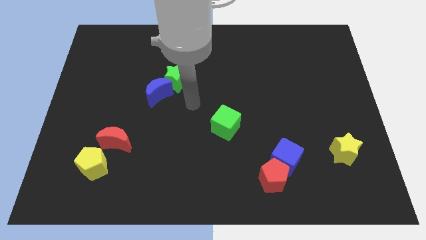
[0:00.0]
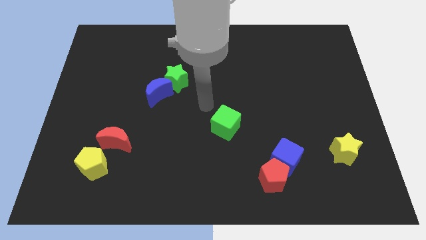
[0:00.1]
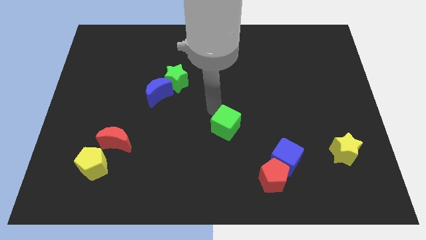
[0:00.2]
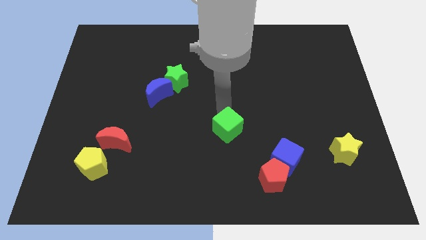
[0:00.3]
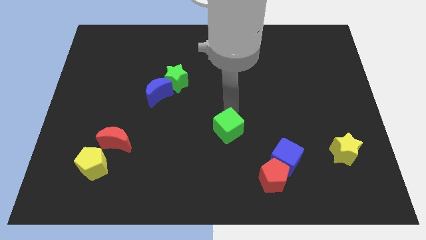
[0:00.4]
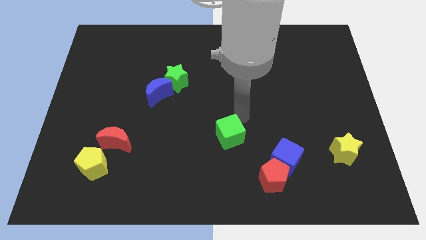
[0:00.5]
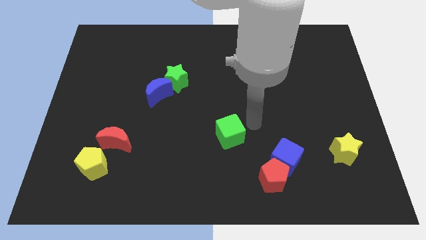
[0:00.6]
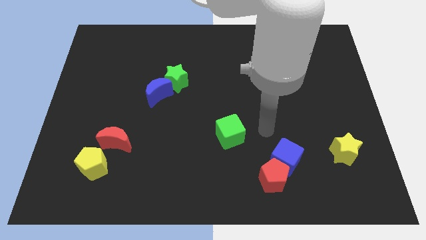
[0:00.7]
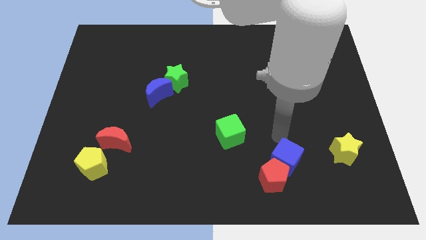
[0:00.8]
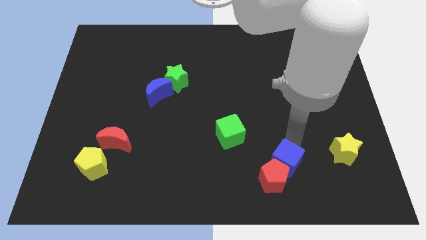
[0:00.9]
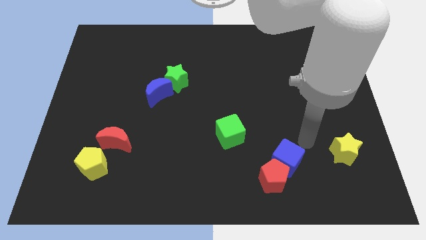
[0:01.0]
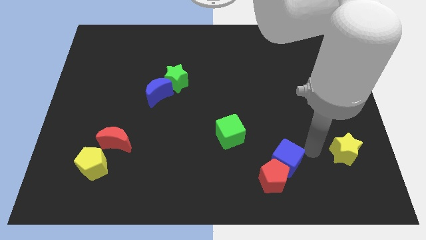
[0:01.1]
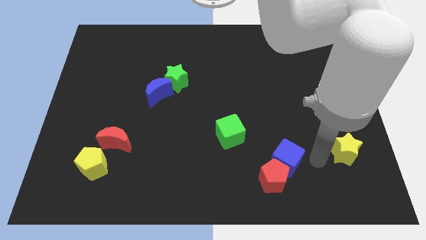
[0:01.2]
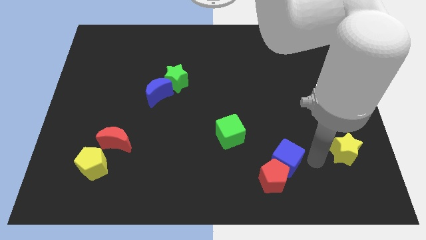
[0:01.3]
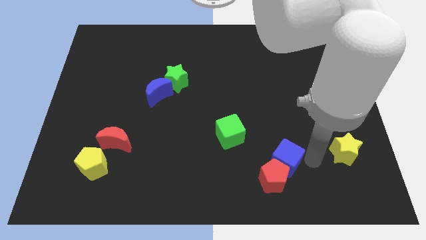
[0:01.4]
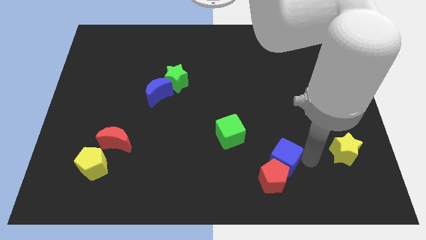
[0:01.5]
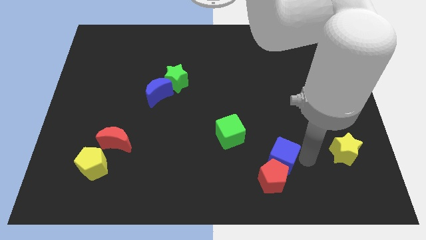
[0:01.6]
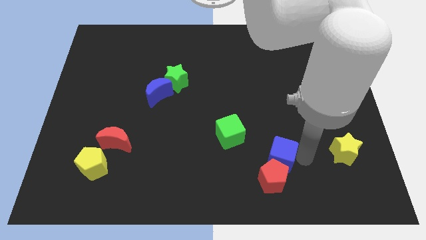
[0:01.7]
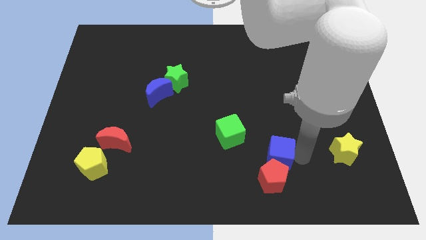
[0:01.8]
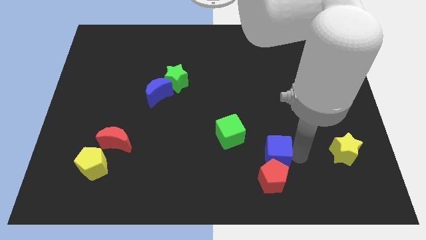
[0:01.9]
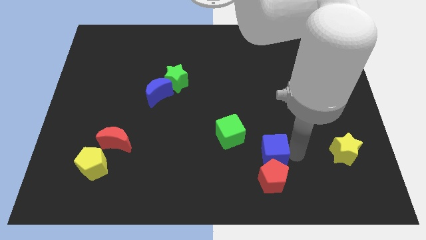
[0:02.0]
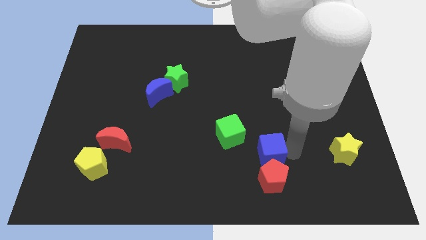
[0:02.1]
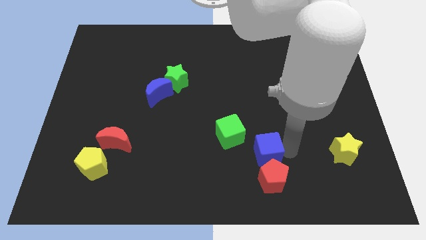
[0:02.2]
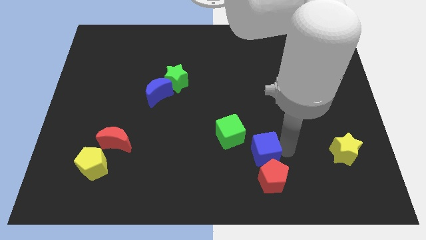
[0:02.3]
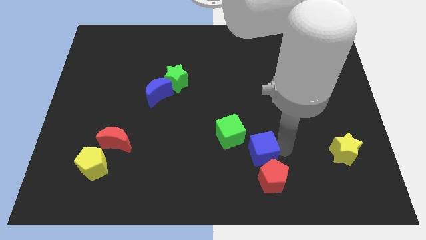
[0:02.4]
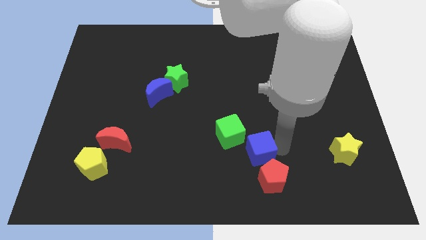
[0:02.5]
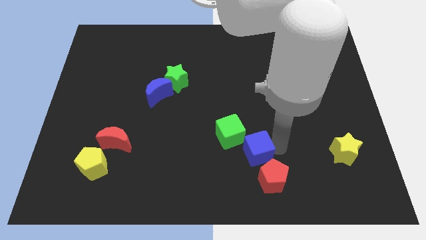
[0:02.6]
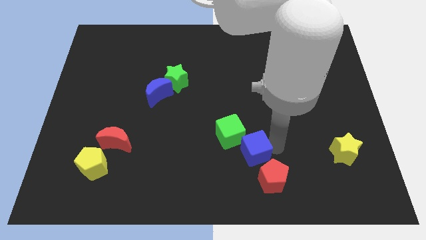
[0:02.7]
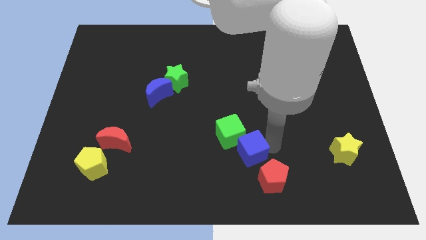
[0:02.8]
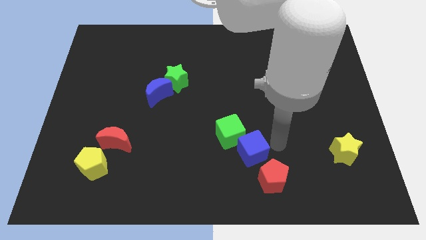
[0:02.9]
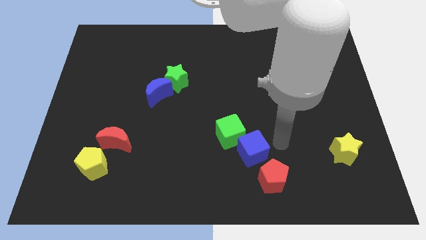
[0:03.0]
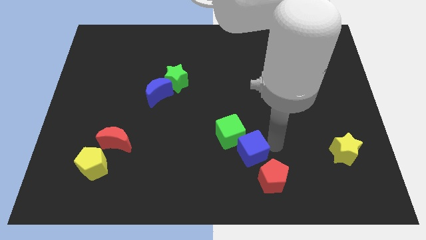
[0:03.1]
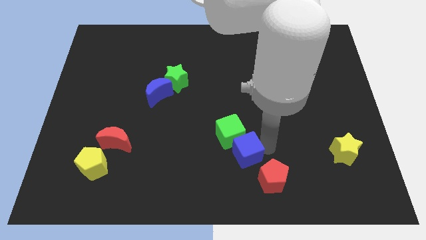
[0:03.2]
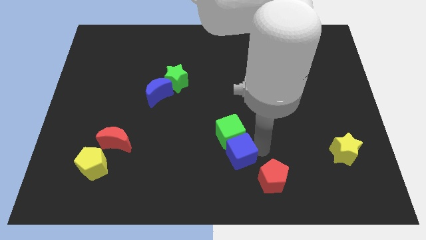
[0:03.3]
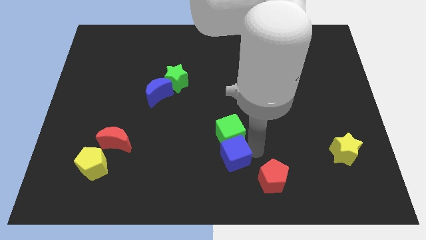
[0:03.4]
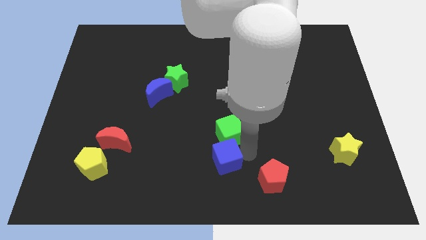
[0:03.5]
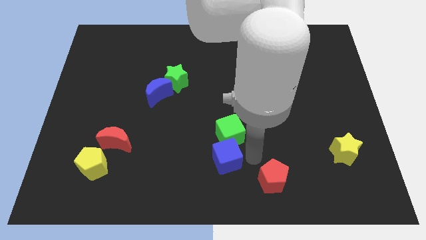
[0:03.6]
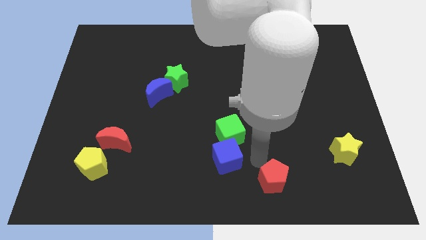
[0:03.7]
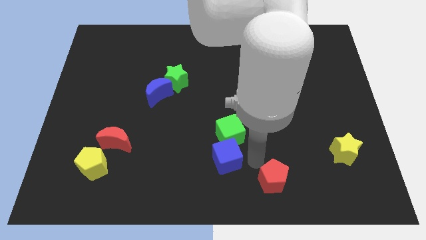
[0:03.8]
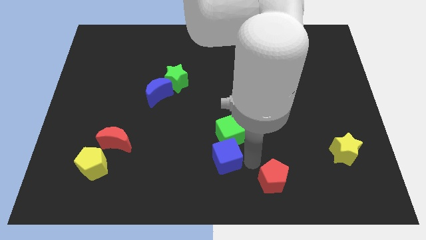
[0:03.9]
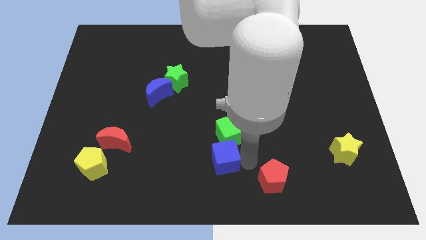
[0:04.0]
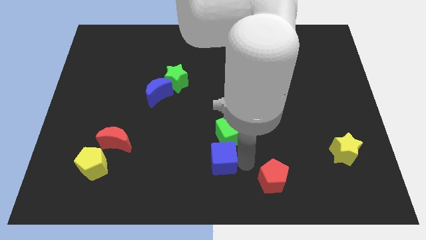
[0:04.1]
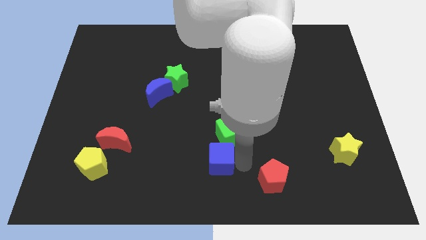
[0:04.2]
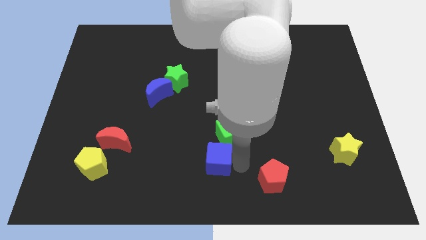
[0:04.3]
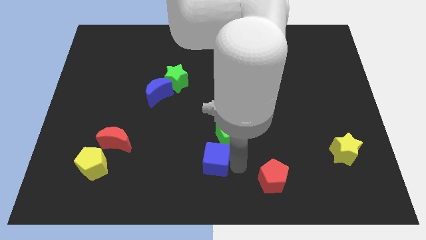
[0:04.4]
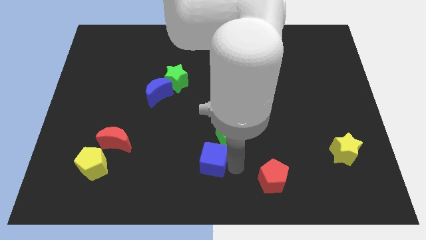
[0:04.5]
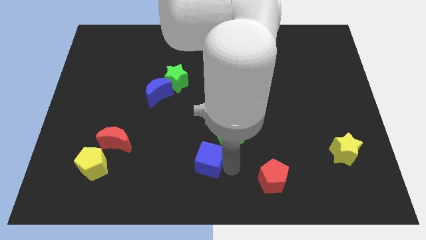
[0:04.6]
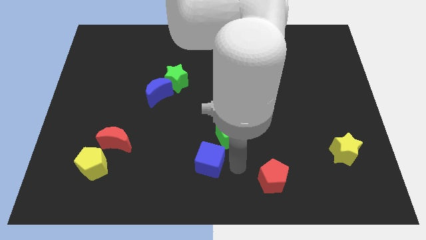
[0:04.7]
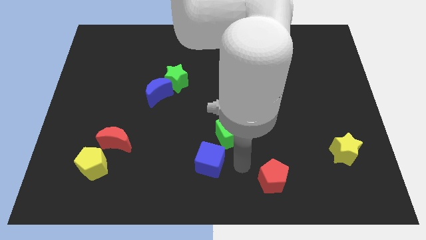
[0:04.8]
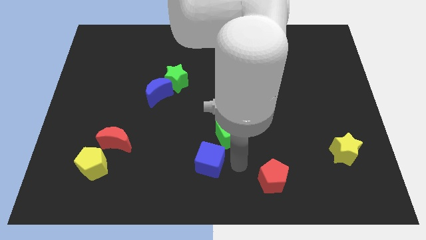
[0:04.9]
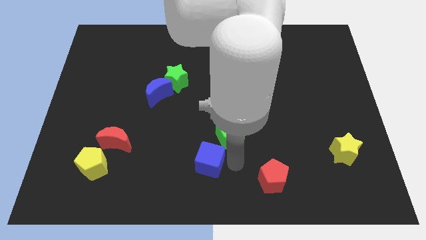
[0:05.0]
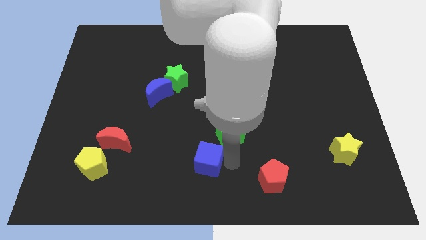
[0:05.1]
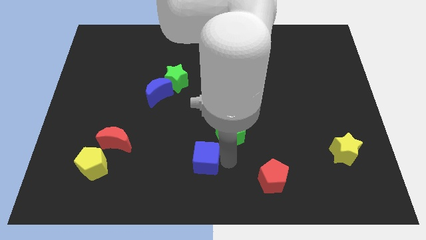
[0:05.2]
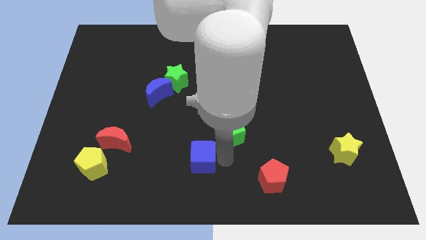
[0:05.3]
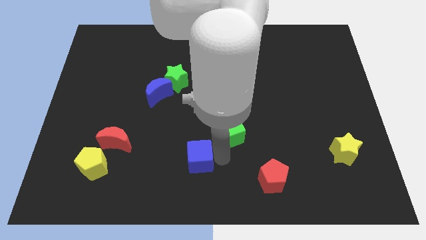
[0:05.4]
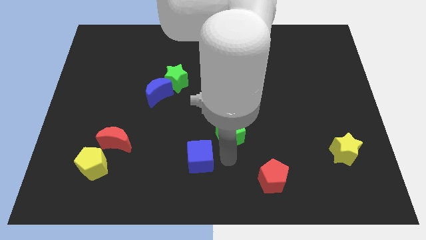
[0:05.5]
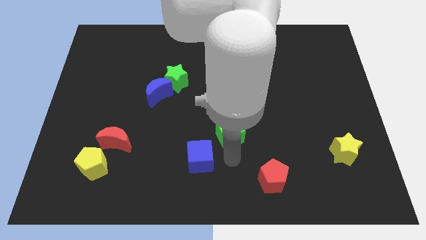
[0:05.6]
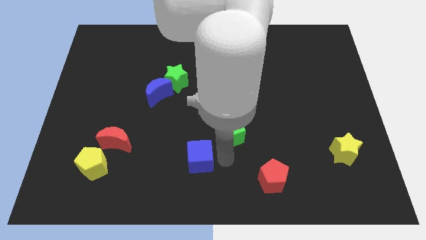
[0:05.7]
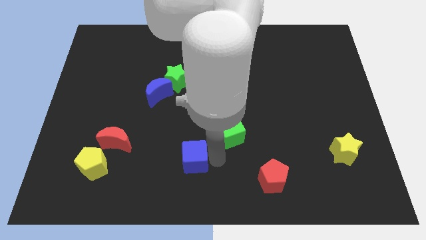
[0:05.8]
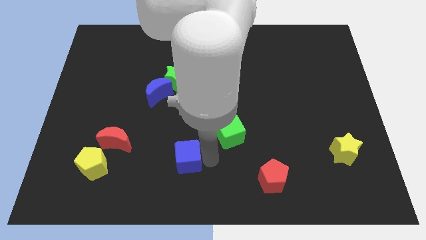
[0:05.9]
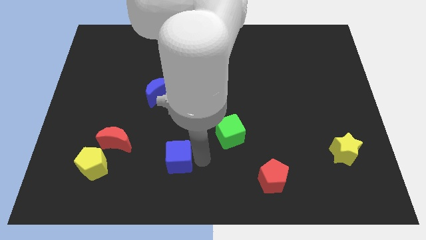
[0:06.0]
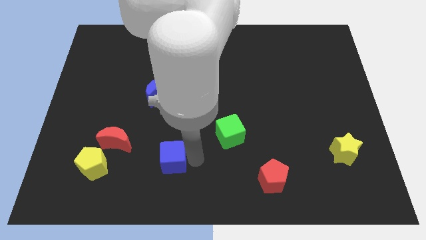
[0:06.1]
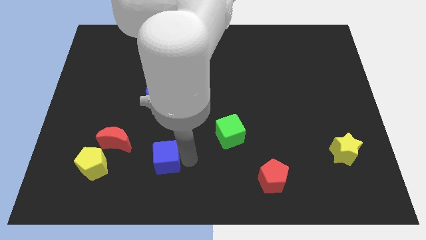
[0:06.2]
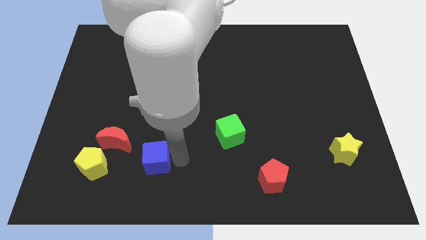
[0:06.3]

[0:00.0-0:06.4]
slide the blue cube to the bottom right side of the red moon

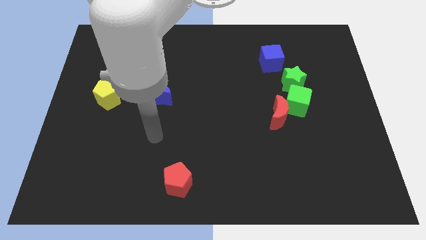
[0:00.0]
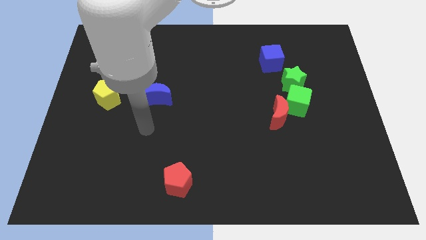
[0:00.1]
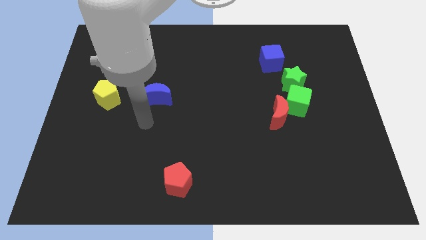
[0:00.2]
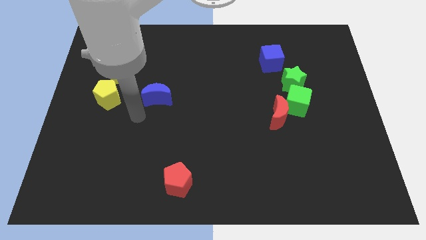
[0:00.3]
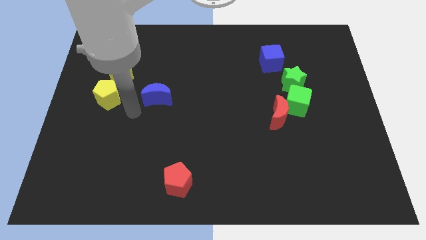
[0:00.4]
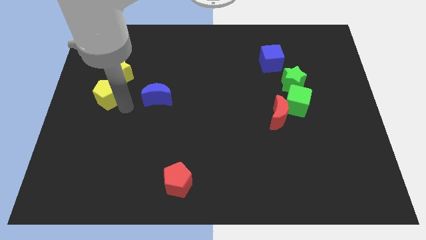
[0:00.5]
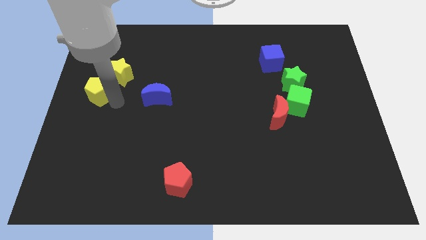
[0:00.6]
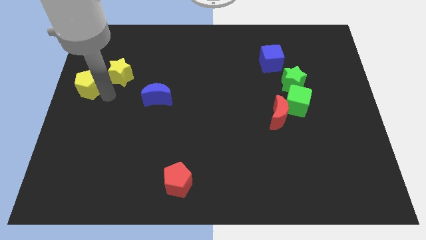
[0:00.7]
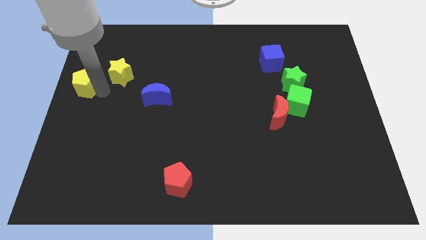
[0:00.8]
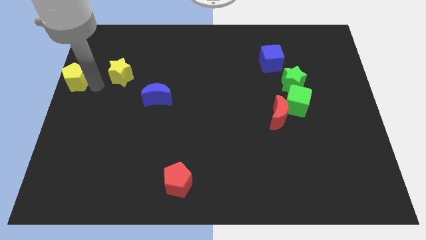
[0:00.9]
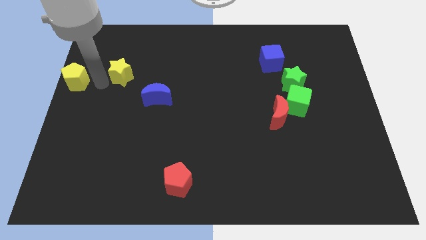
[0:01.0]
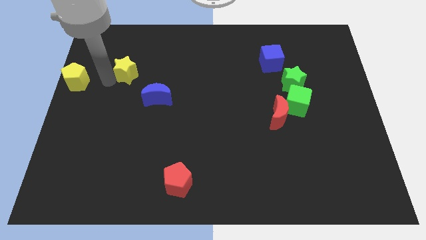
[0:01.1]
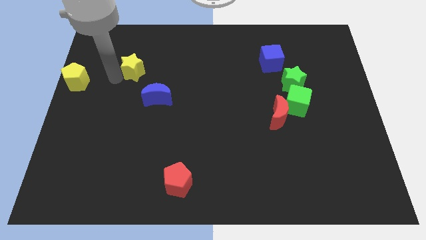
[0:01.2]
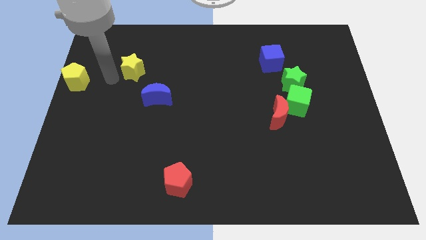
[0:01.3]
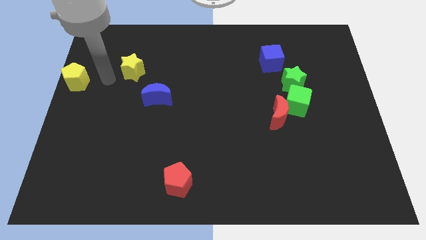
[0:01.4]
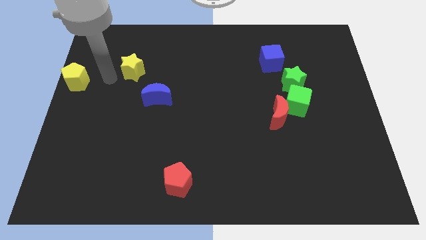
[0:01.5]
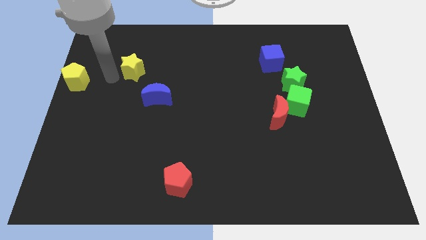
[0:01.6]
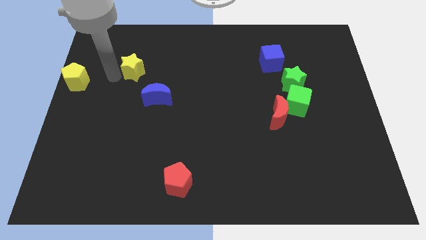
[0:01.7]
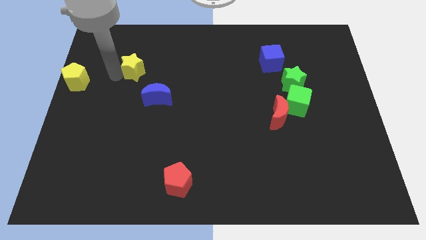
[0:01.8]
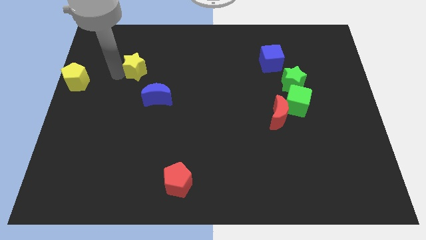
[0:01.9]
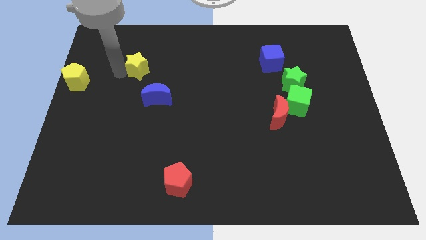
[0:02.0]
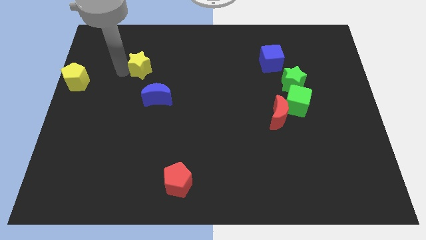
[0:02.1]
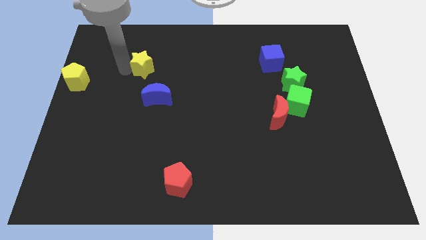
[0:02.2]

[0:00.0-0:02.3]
push the yellow star above the blue moon
